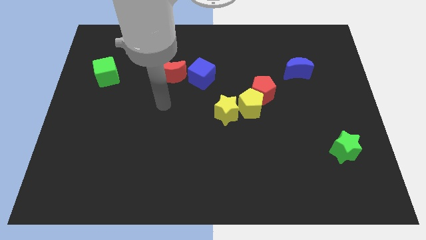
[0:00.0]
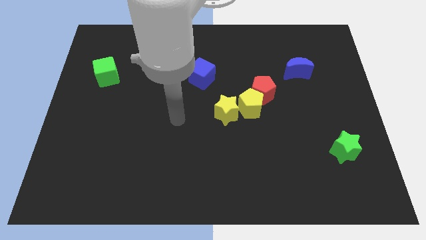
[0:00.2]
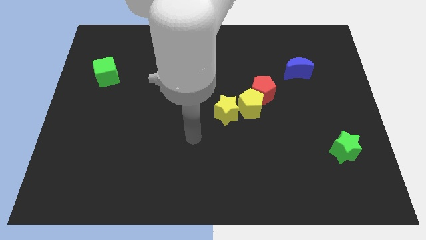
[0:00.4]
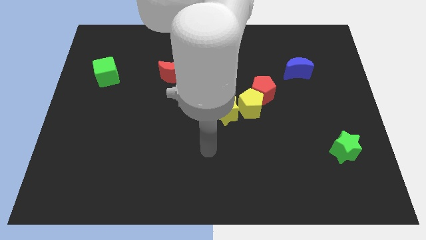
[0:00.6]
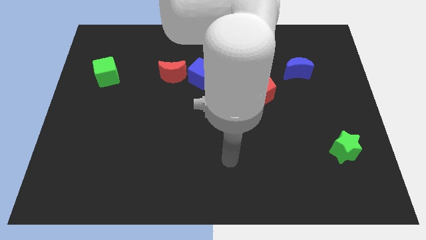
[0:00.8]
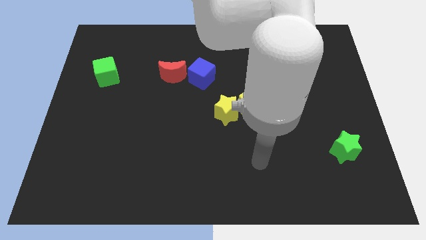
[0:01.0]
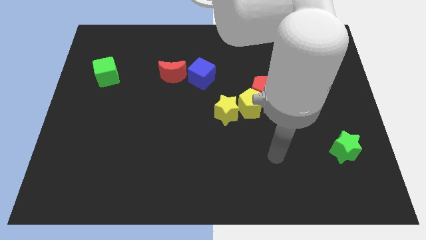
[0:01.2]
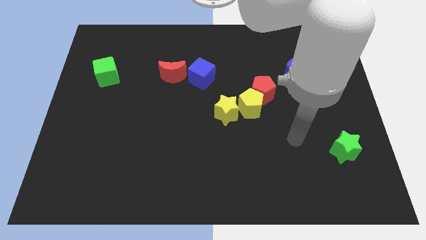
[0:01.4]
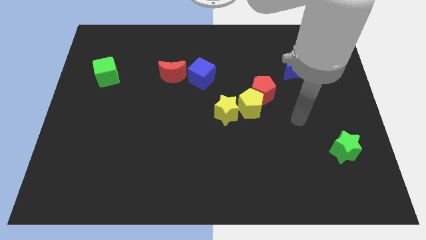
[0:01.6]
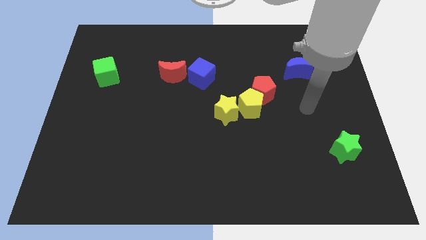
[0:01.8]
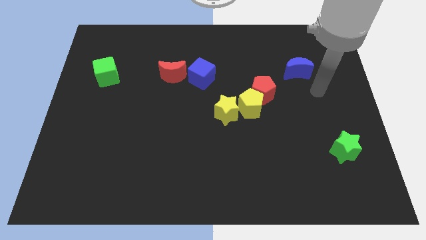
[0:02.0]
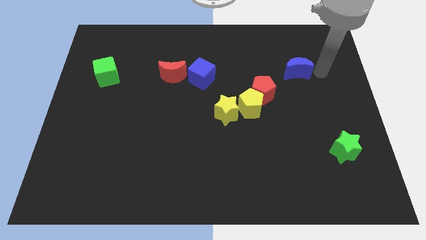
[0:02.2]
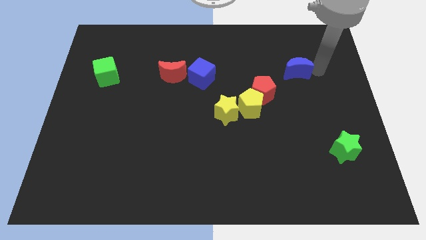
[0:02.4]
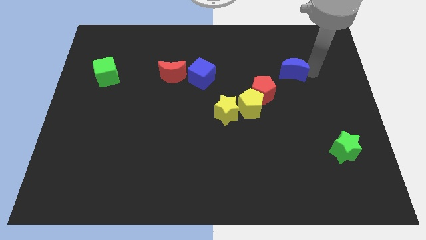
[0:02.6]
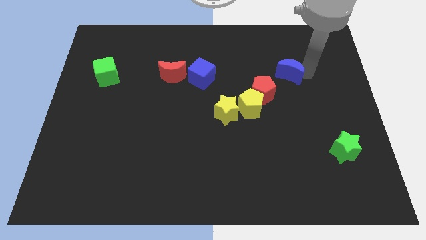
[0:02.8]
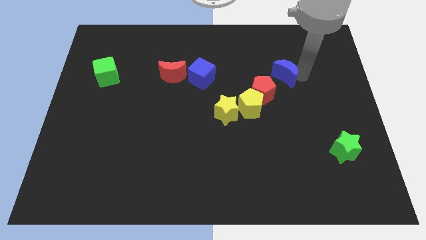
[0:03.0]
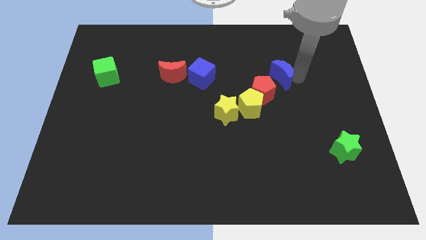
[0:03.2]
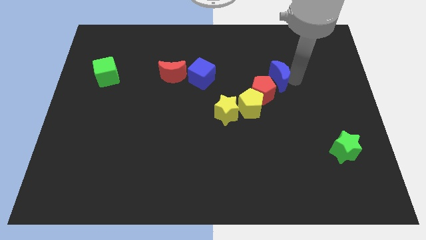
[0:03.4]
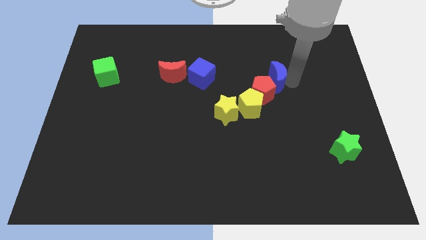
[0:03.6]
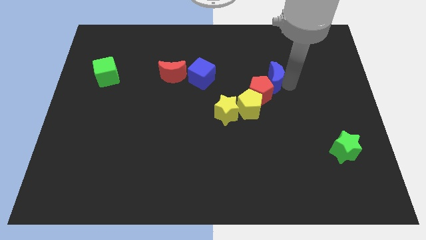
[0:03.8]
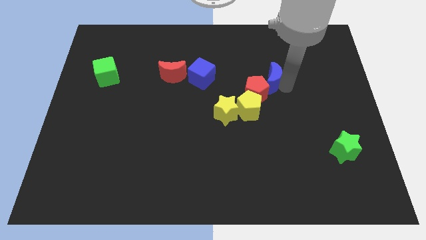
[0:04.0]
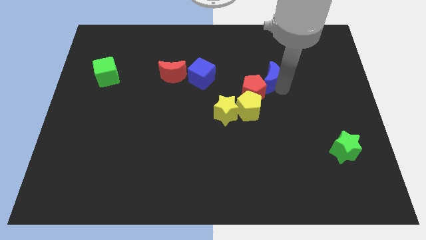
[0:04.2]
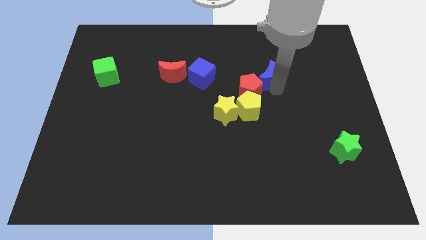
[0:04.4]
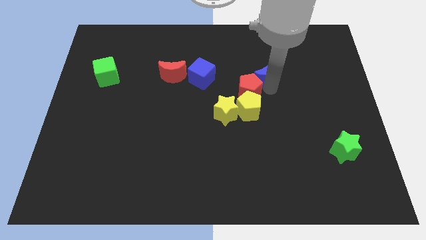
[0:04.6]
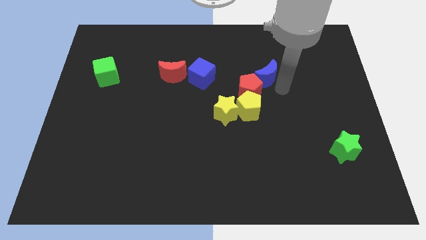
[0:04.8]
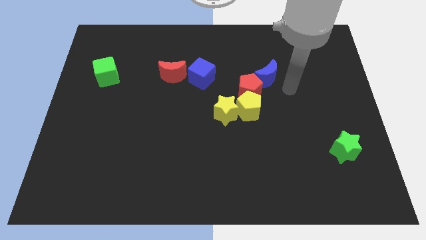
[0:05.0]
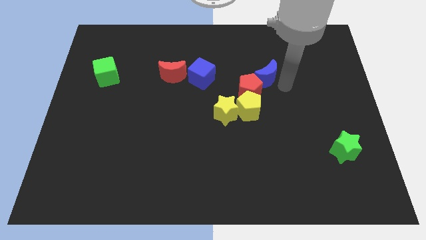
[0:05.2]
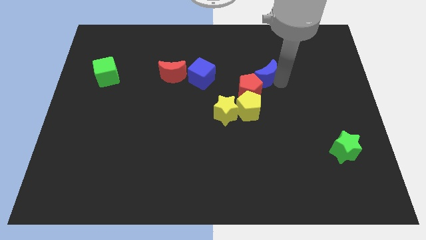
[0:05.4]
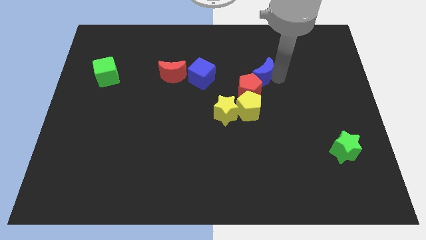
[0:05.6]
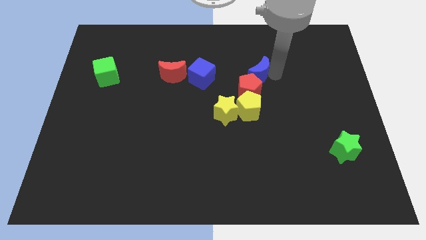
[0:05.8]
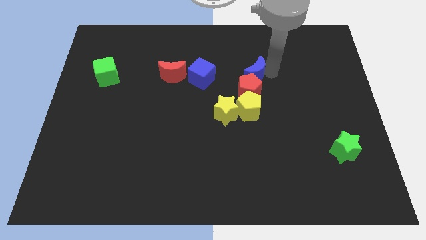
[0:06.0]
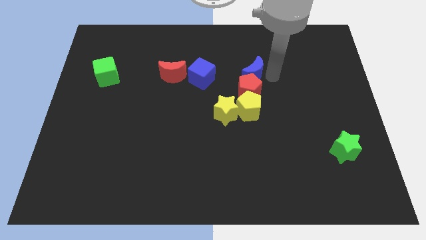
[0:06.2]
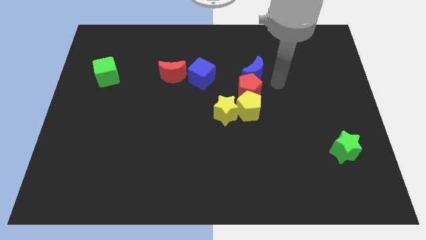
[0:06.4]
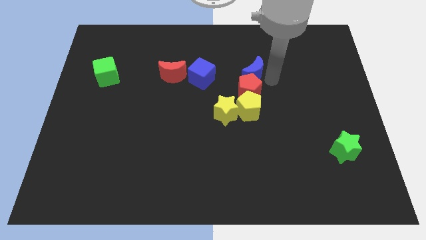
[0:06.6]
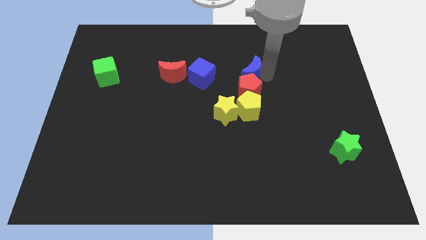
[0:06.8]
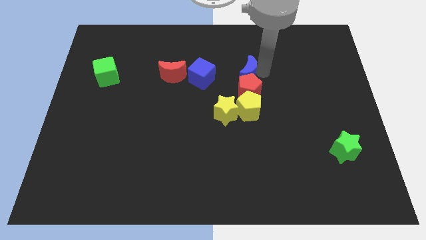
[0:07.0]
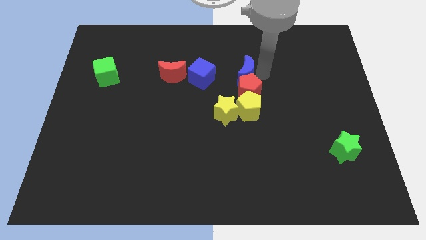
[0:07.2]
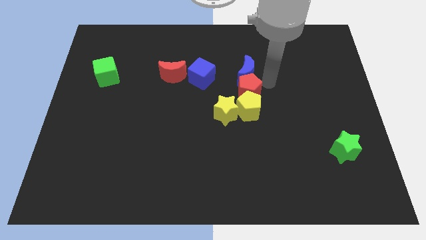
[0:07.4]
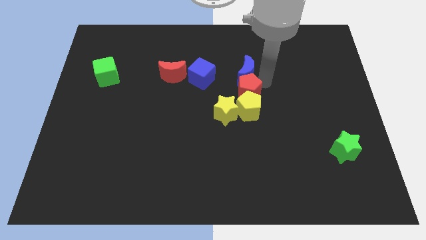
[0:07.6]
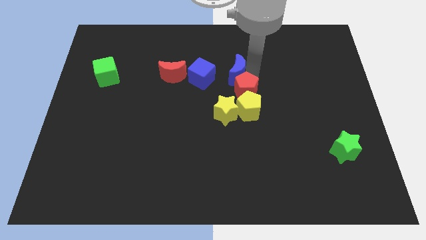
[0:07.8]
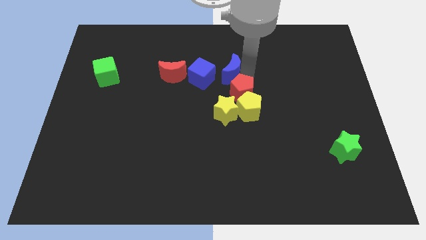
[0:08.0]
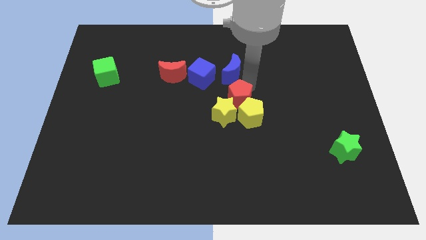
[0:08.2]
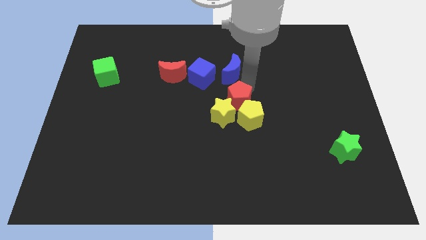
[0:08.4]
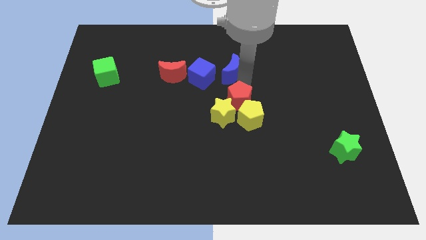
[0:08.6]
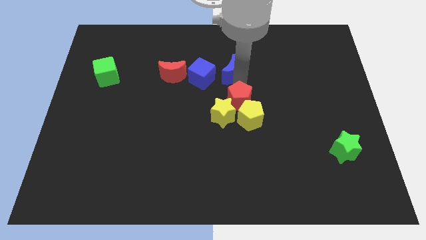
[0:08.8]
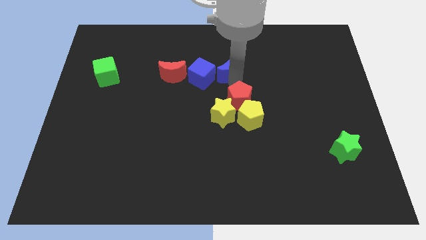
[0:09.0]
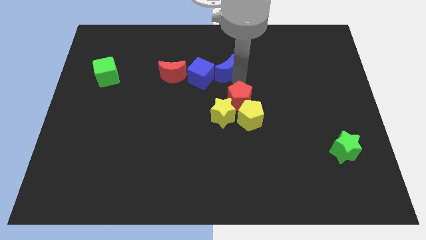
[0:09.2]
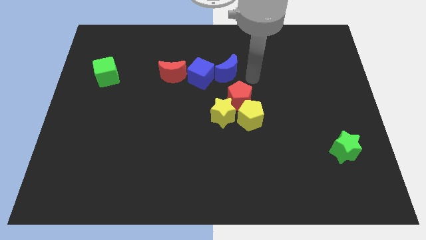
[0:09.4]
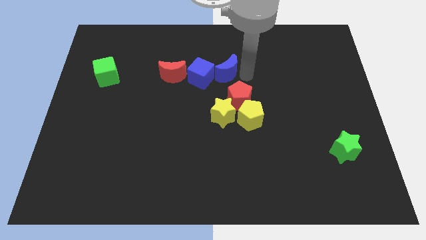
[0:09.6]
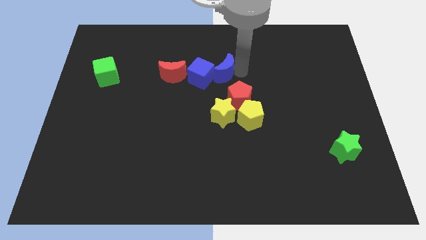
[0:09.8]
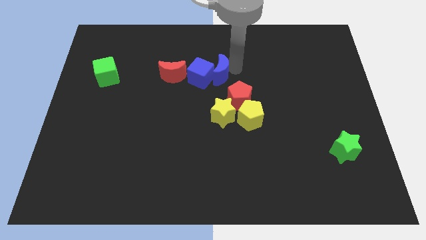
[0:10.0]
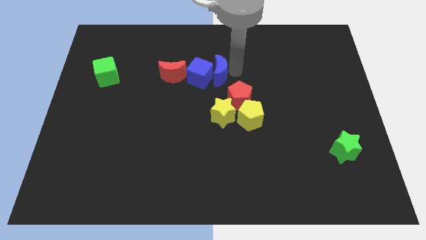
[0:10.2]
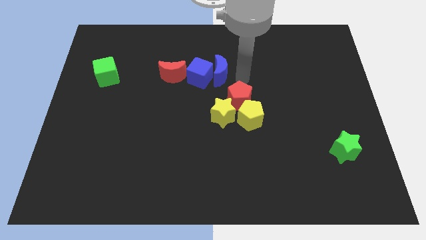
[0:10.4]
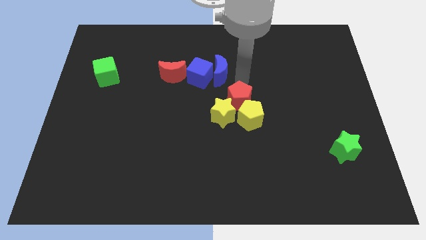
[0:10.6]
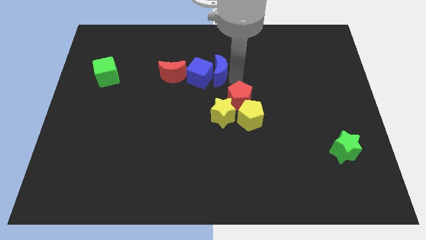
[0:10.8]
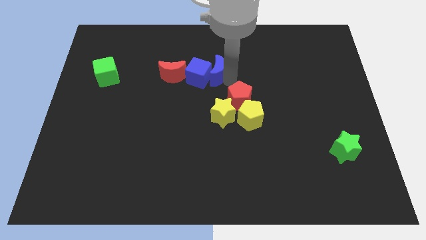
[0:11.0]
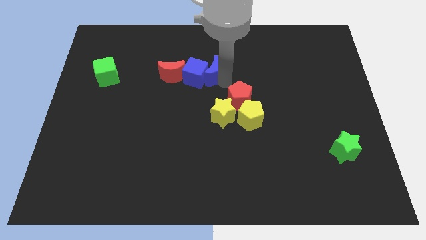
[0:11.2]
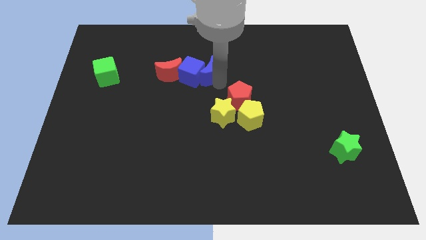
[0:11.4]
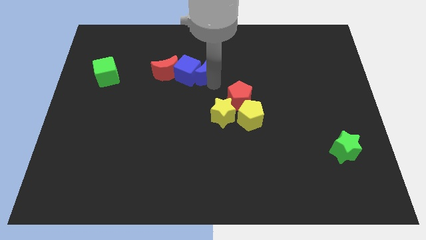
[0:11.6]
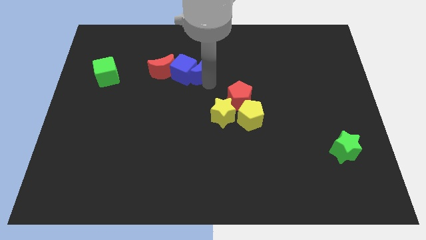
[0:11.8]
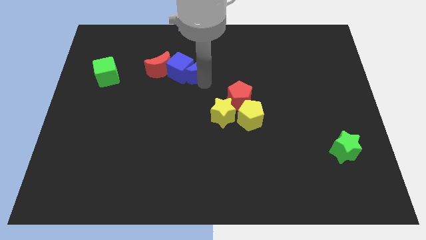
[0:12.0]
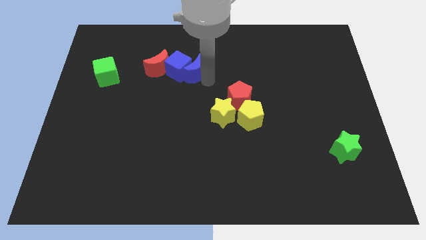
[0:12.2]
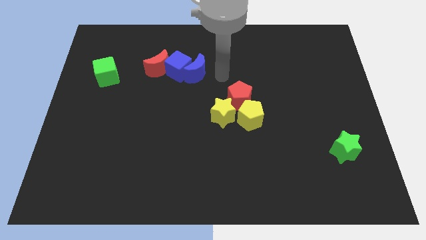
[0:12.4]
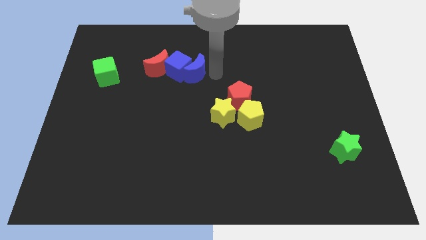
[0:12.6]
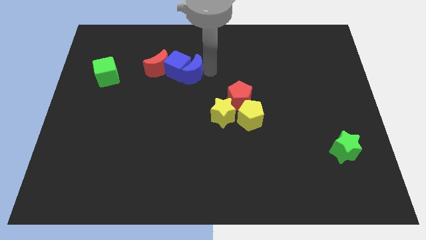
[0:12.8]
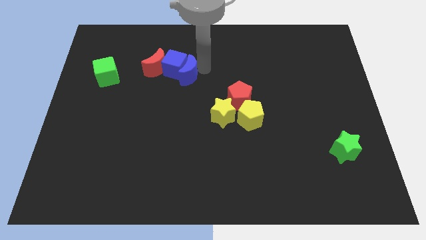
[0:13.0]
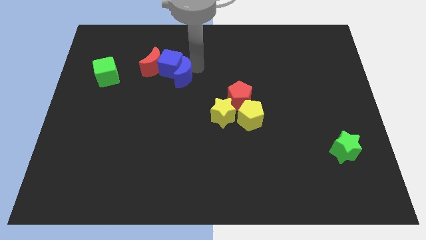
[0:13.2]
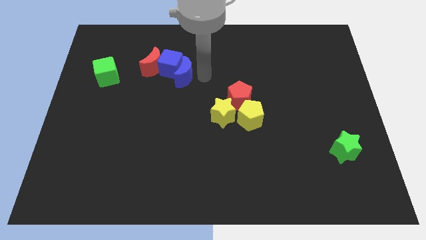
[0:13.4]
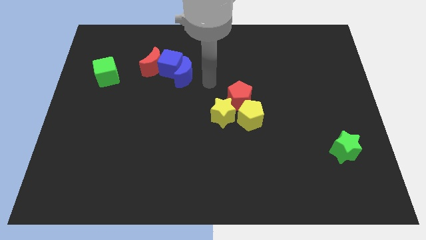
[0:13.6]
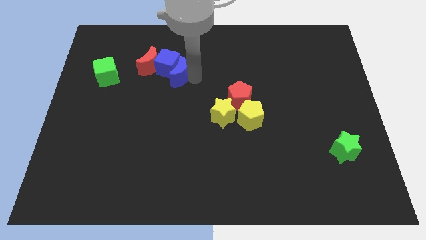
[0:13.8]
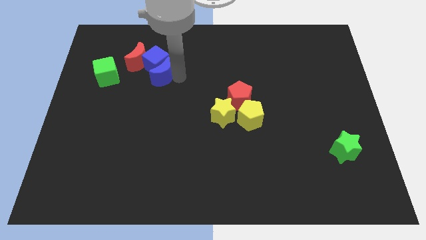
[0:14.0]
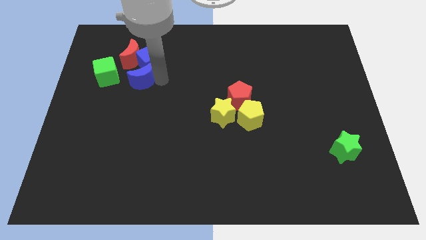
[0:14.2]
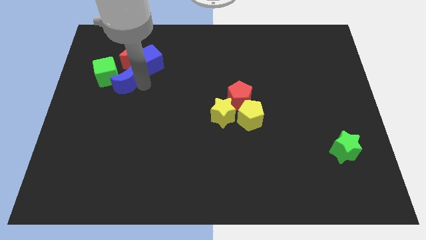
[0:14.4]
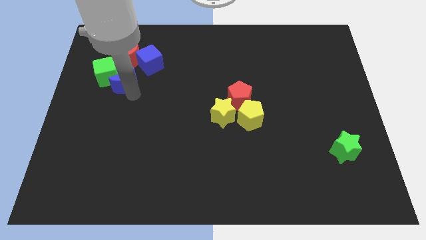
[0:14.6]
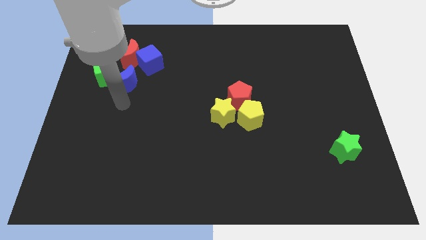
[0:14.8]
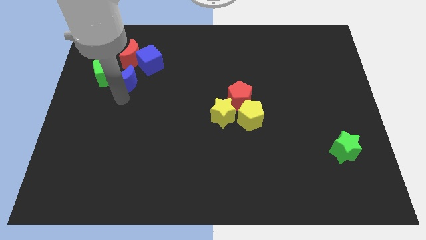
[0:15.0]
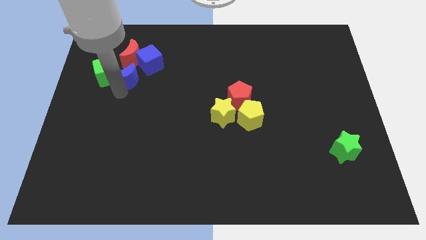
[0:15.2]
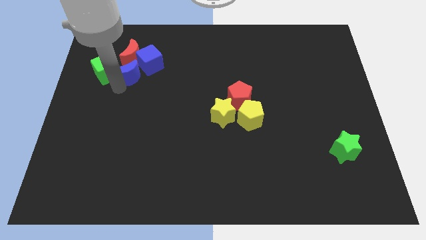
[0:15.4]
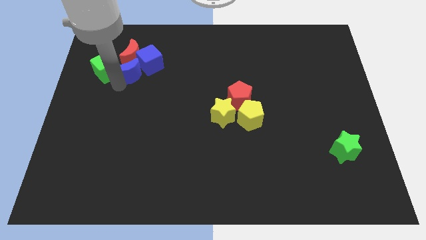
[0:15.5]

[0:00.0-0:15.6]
move the blue moon next to the red moon
